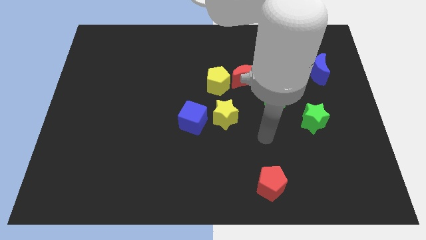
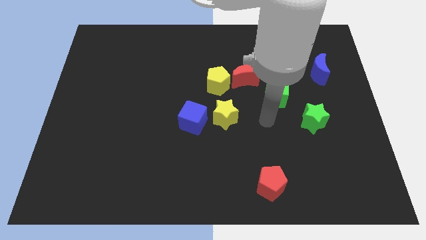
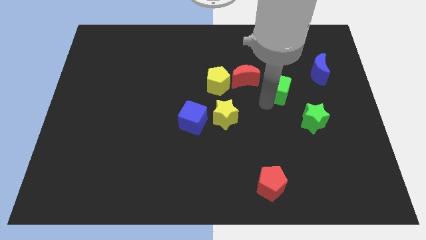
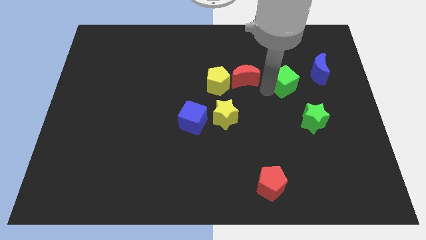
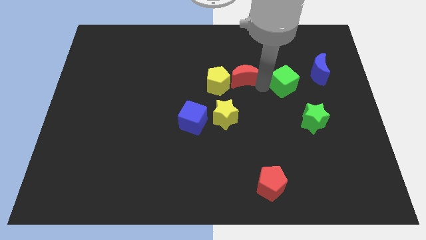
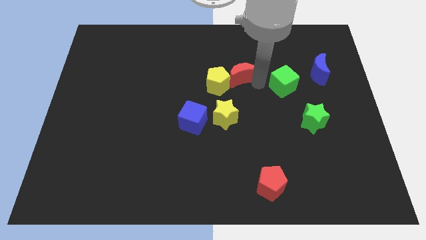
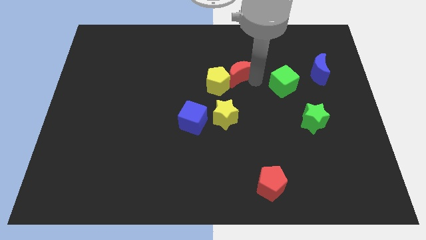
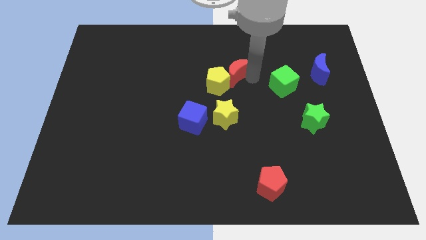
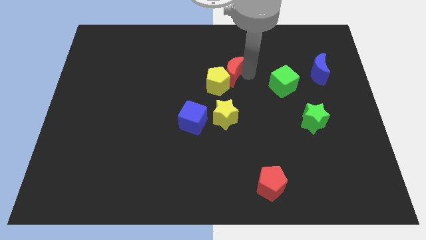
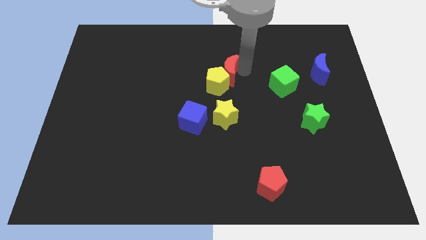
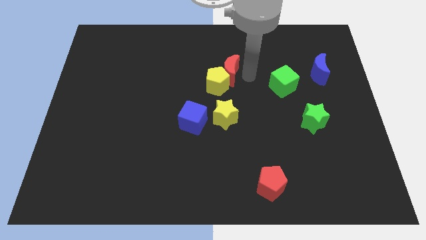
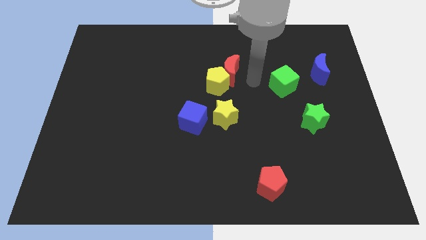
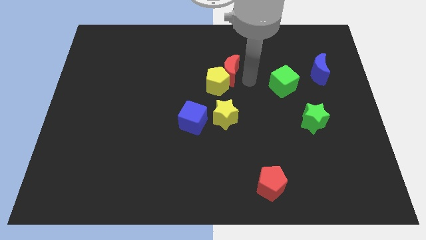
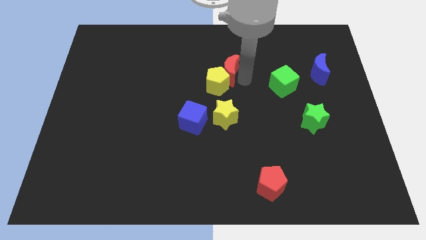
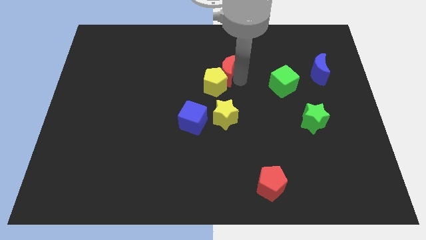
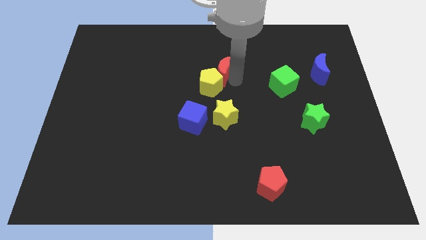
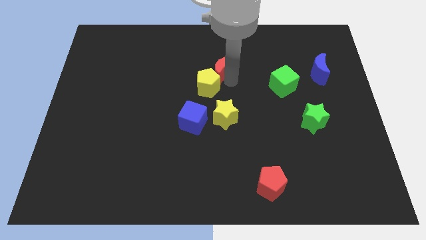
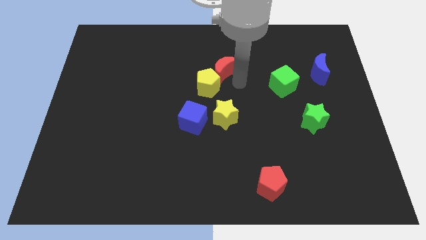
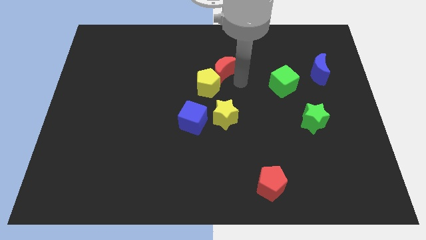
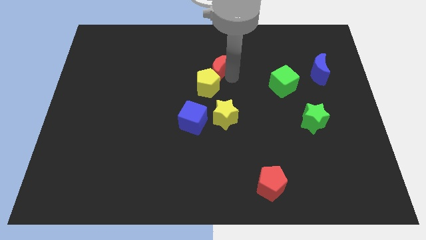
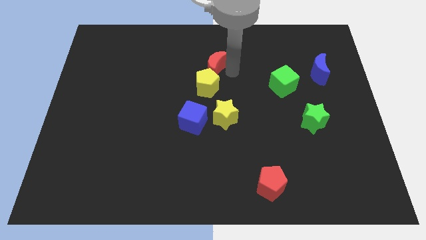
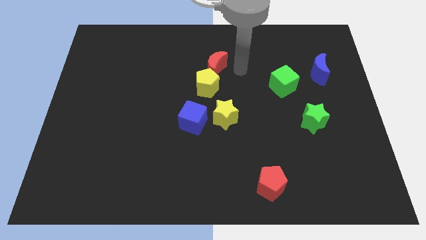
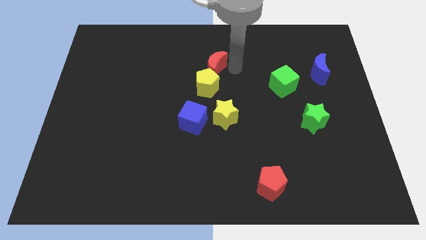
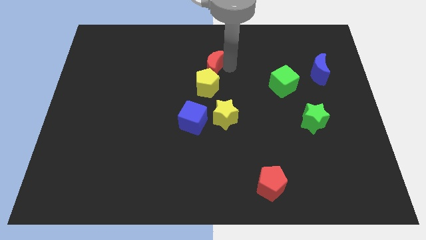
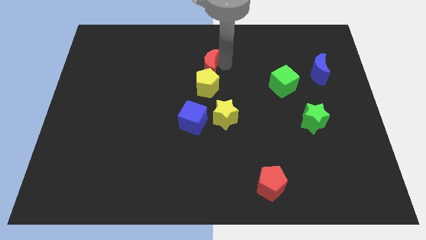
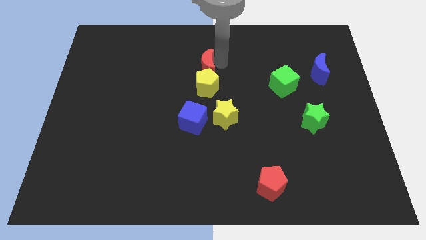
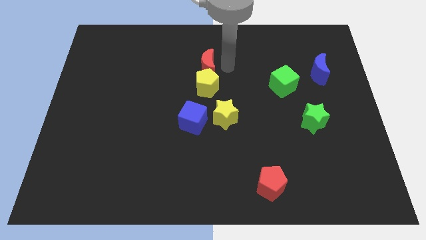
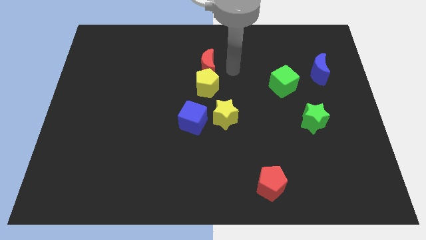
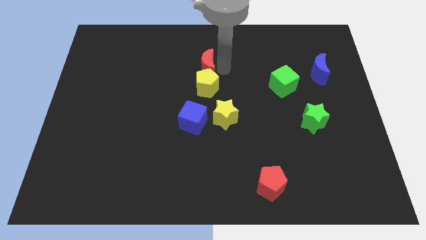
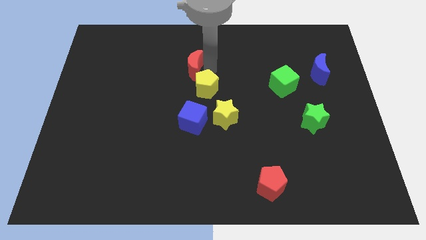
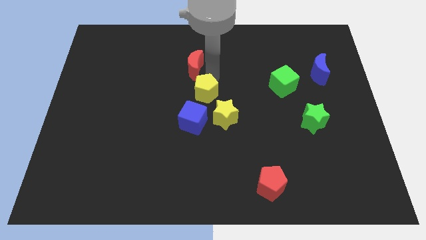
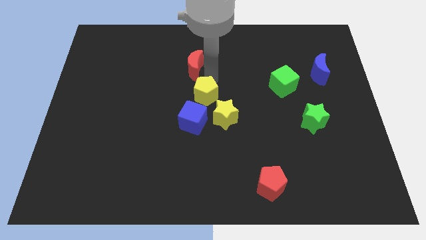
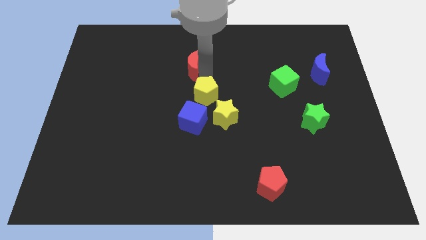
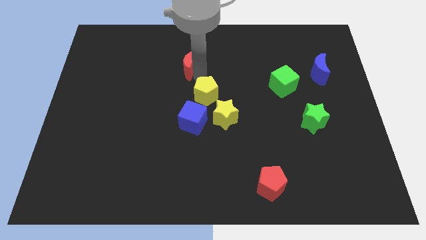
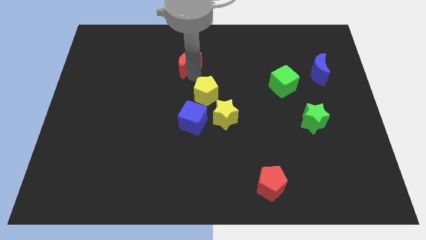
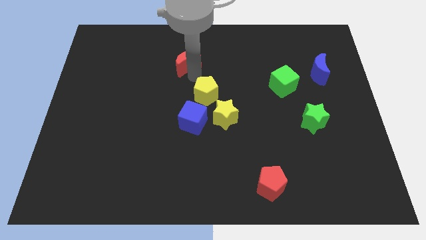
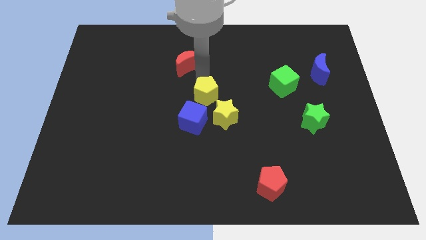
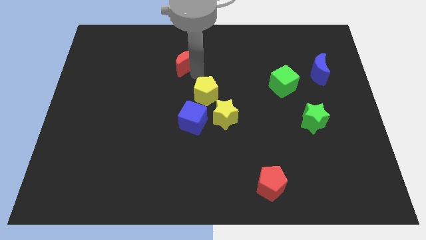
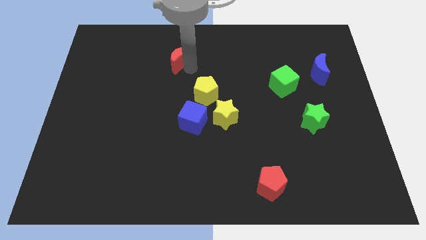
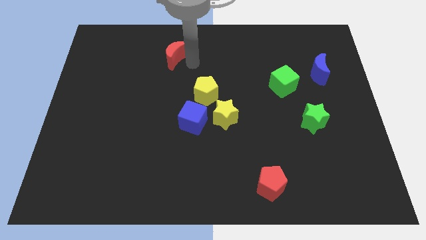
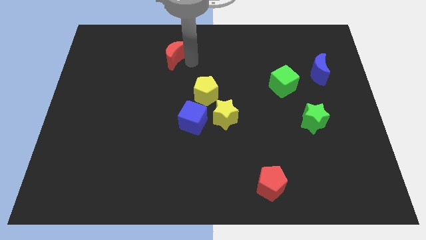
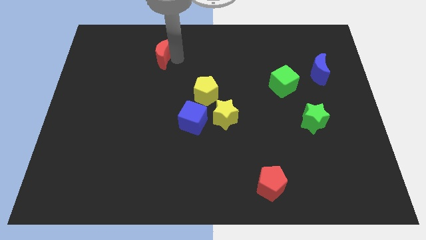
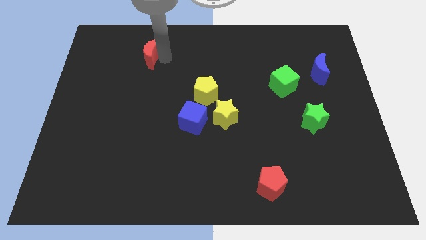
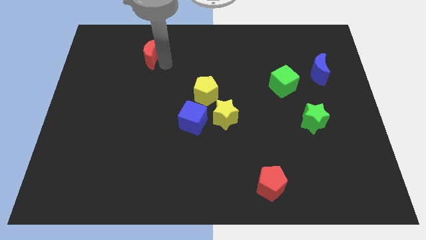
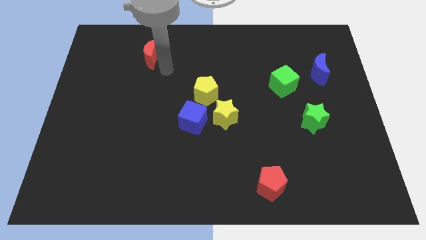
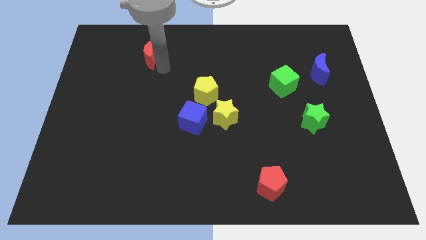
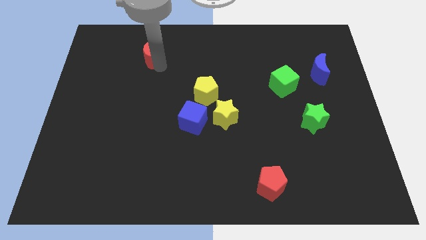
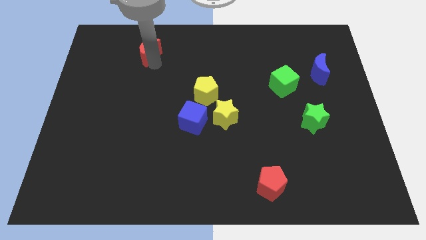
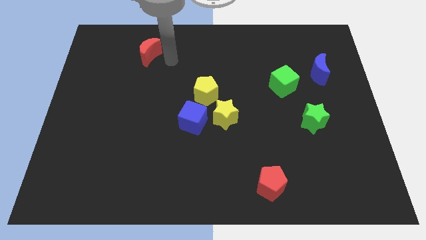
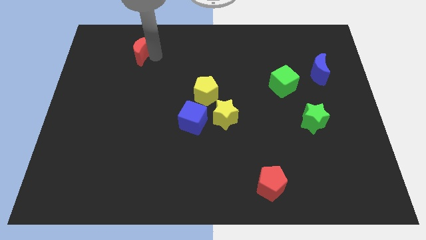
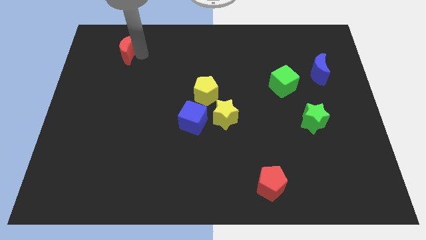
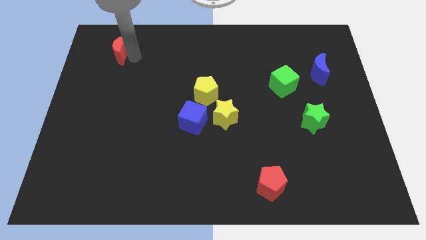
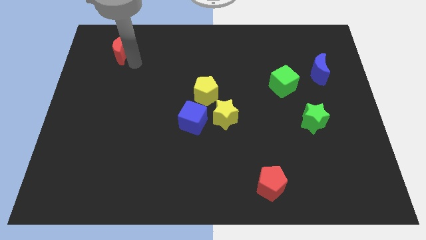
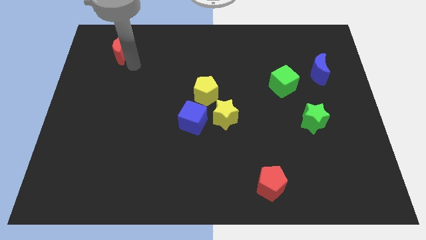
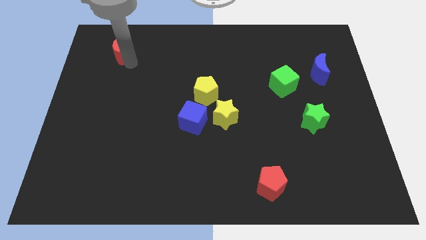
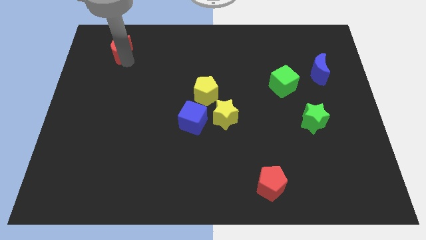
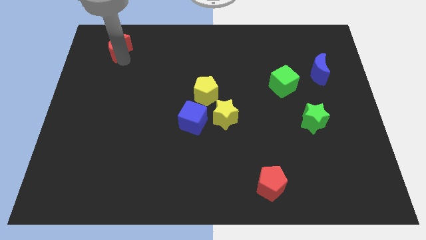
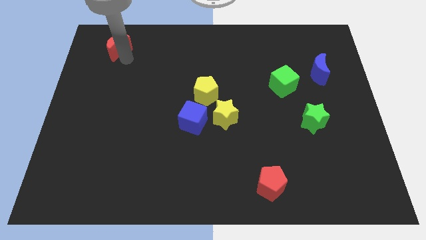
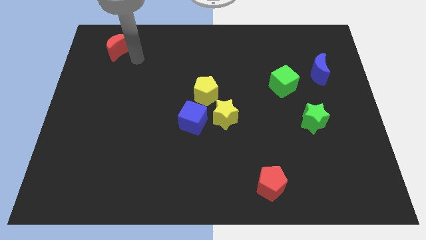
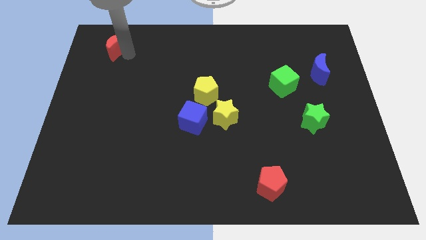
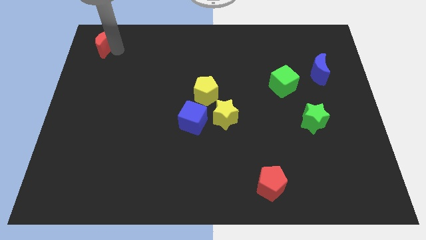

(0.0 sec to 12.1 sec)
slide the red moon to the upper left corner

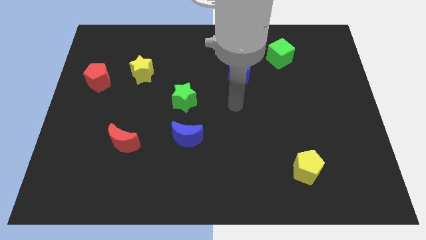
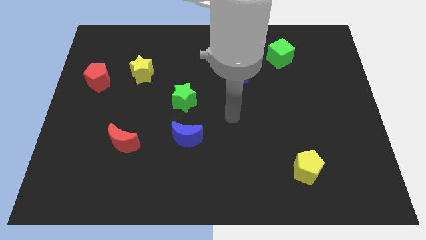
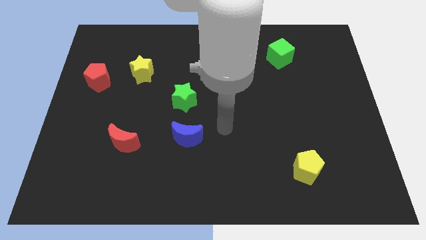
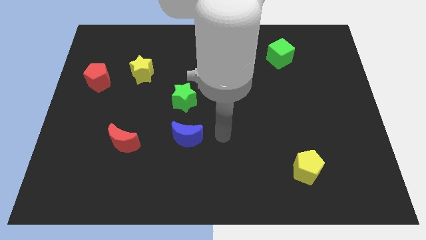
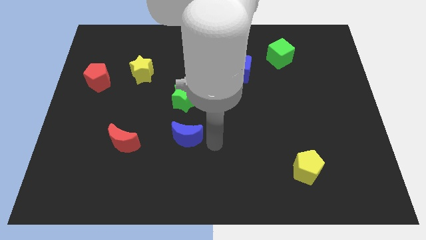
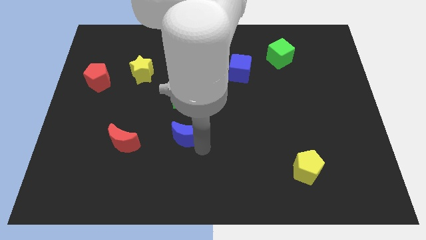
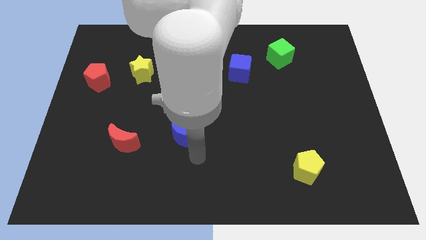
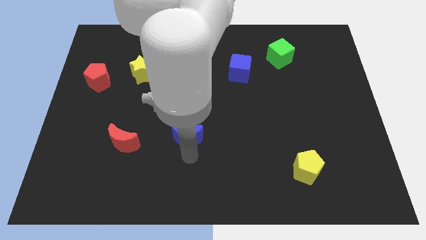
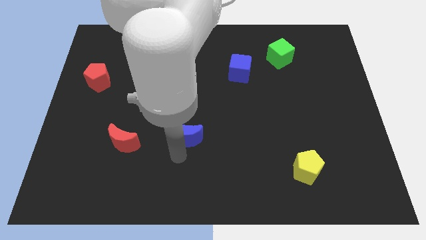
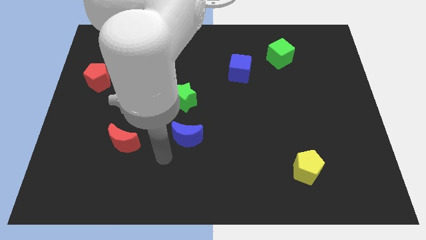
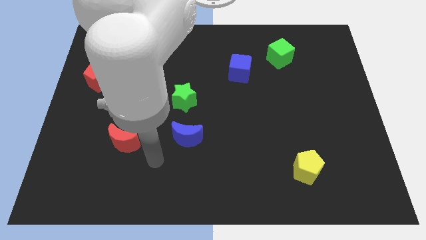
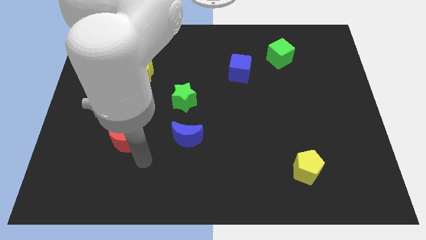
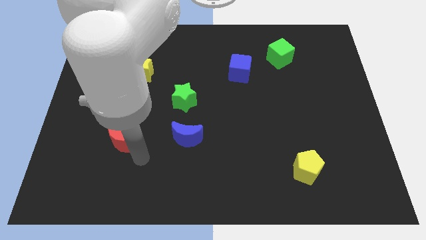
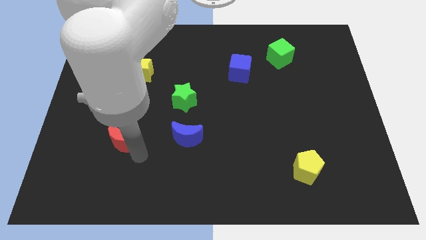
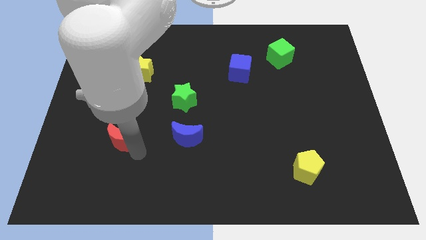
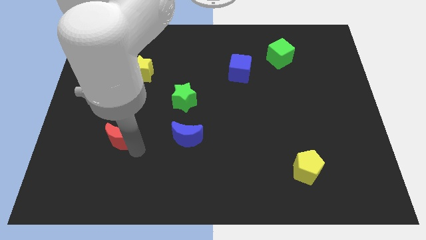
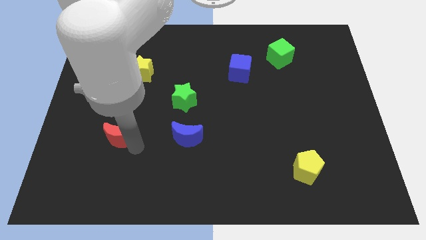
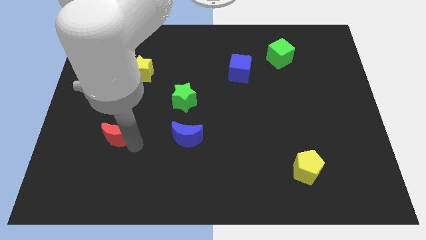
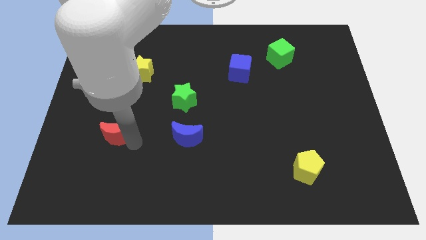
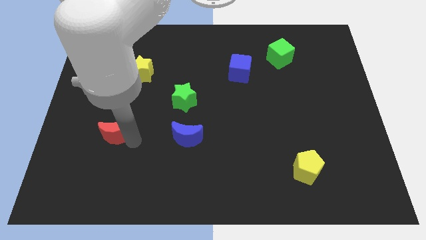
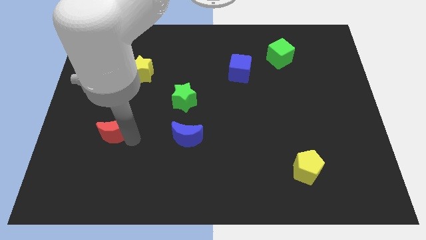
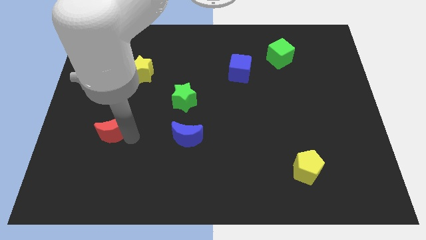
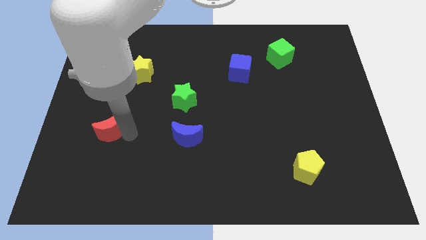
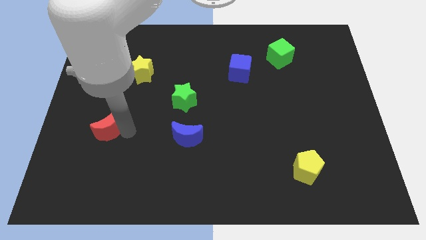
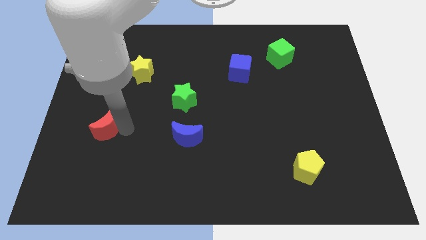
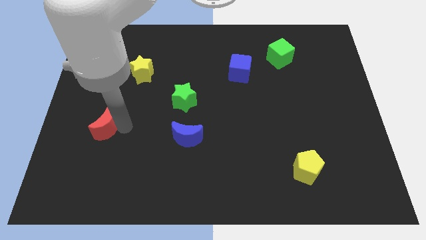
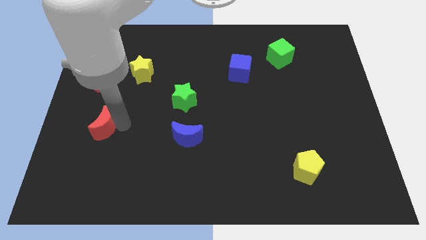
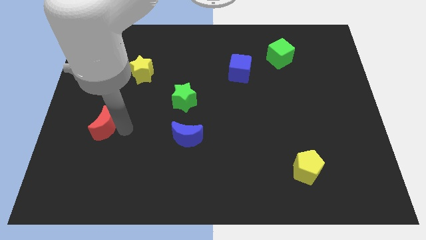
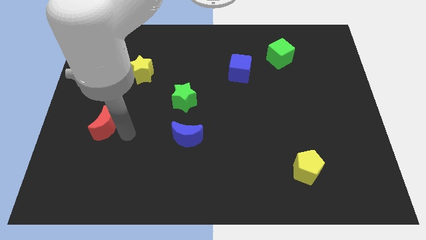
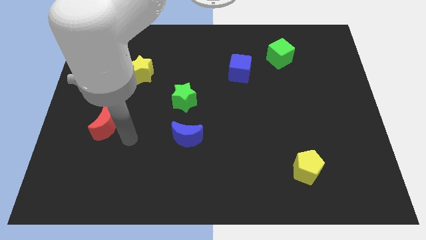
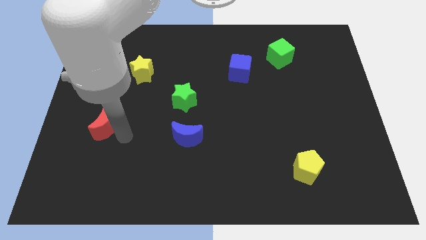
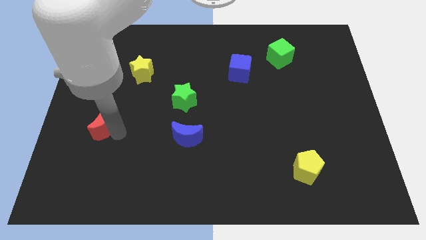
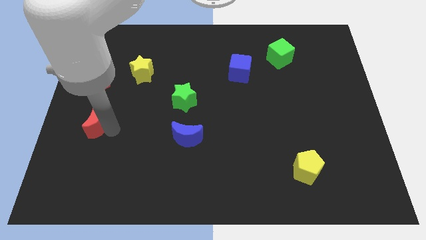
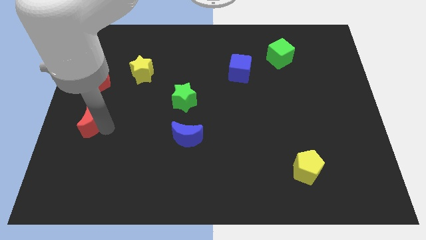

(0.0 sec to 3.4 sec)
slide the red moon to the left side of the board
